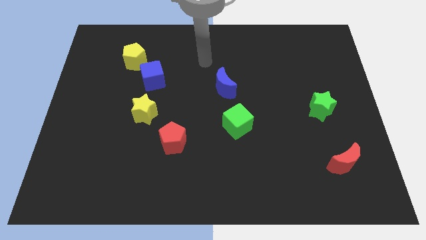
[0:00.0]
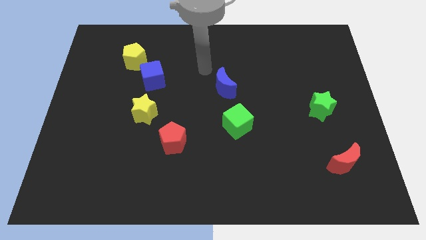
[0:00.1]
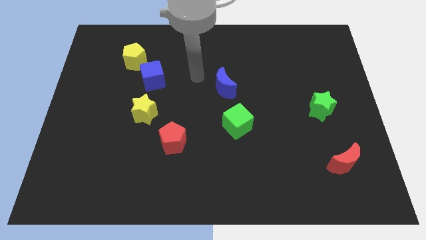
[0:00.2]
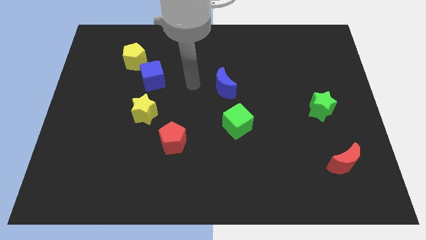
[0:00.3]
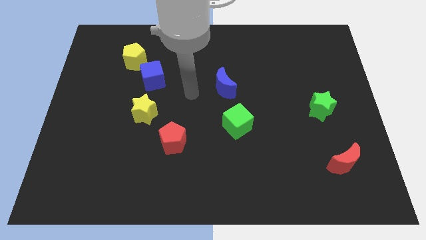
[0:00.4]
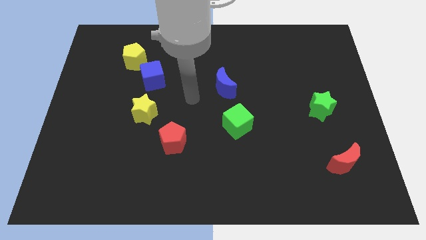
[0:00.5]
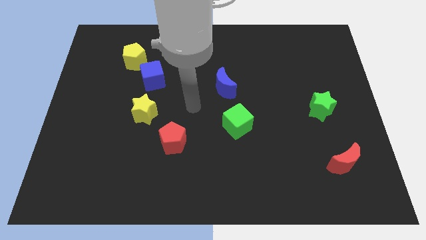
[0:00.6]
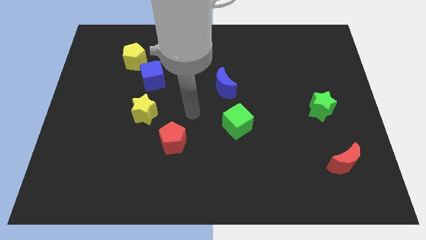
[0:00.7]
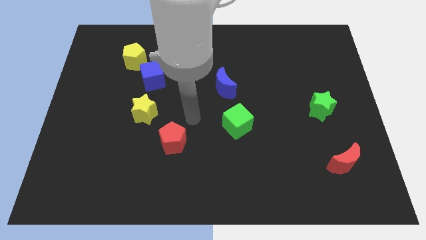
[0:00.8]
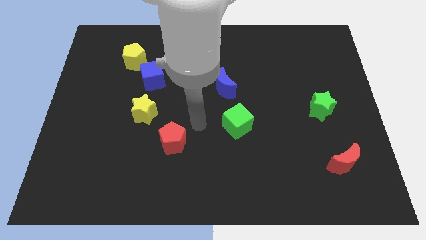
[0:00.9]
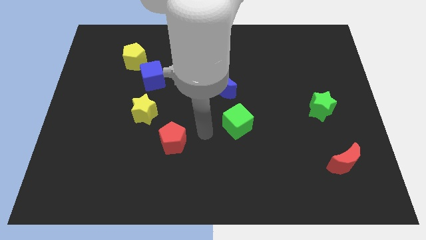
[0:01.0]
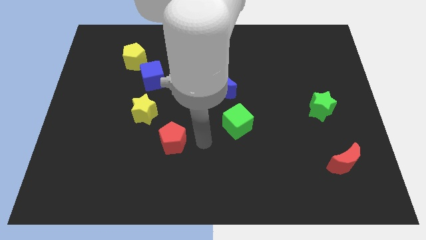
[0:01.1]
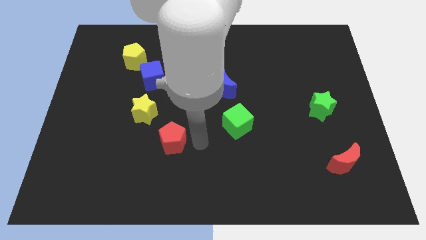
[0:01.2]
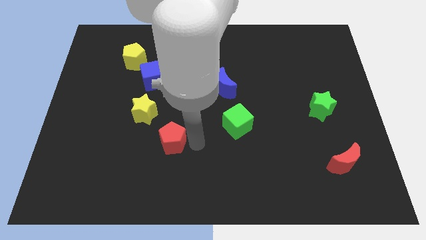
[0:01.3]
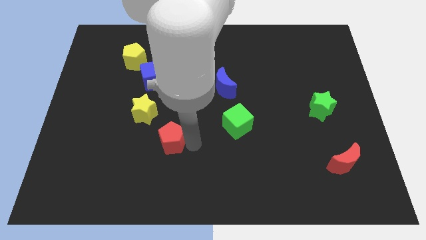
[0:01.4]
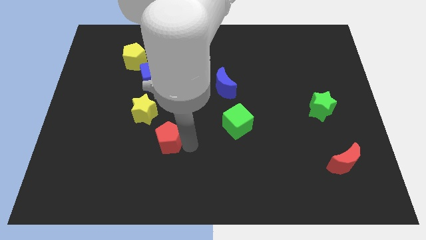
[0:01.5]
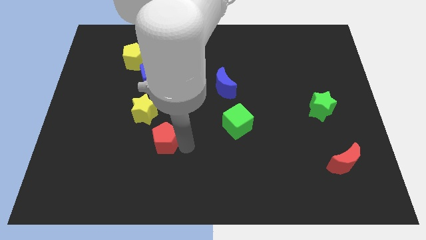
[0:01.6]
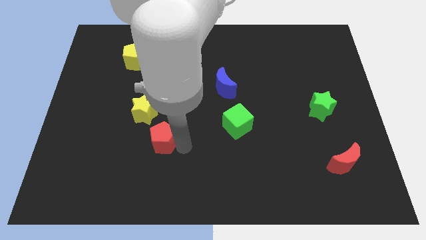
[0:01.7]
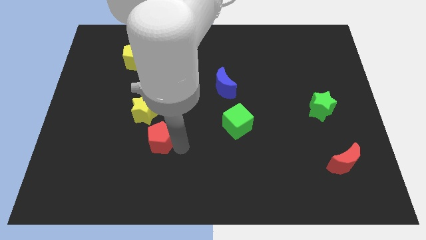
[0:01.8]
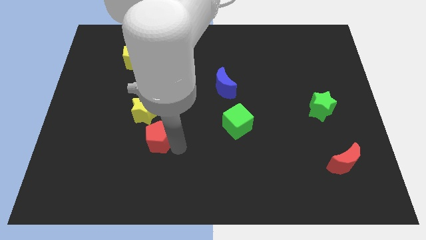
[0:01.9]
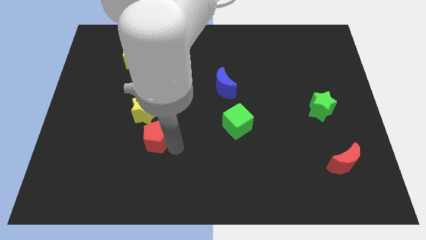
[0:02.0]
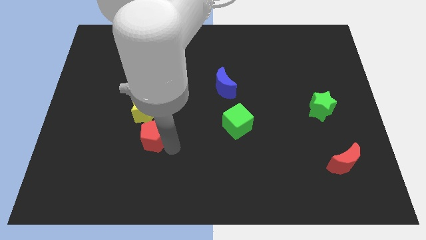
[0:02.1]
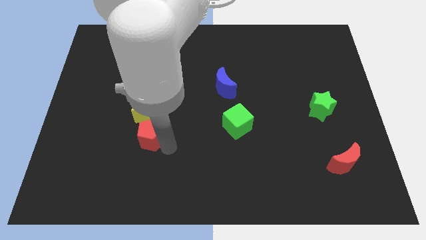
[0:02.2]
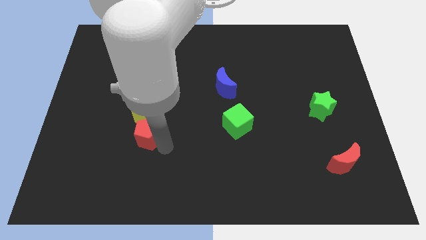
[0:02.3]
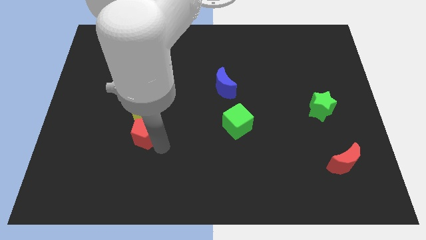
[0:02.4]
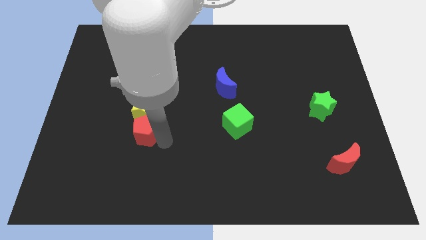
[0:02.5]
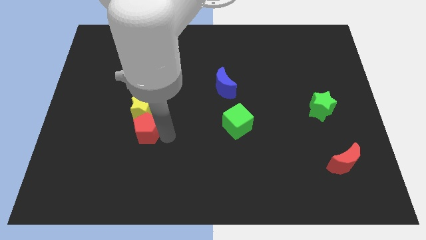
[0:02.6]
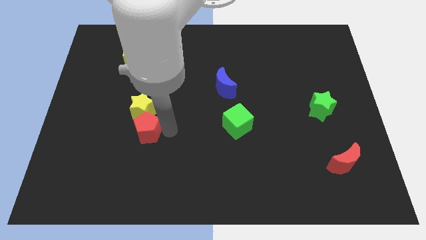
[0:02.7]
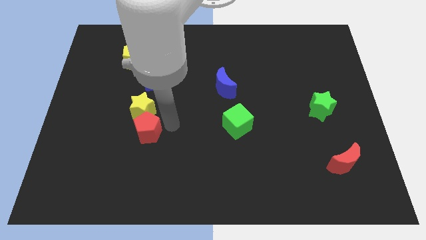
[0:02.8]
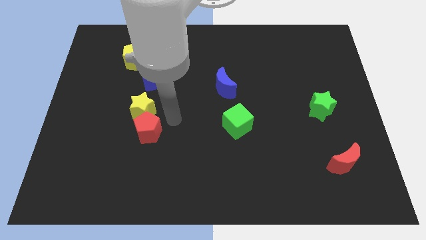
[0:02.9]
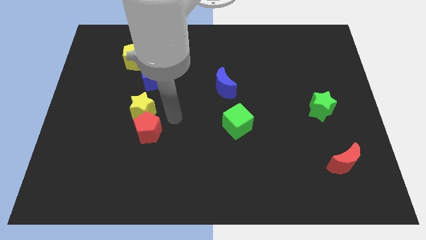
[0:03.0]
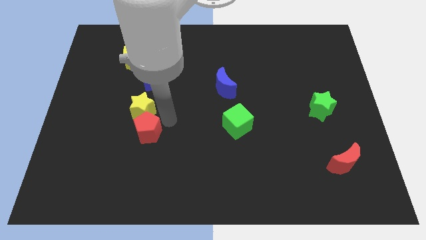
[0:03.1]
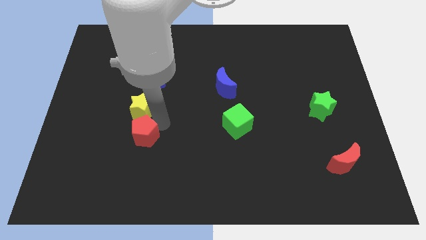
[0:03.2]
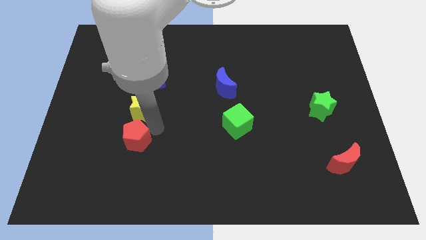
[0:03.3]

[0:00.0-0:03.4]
move the red pentagon a little to the left

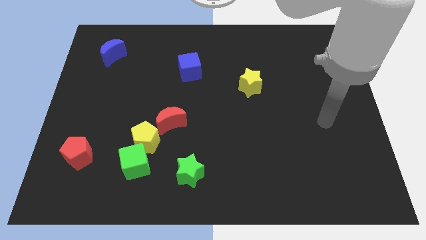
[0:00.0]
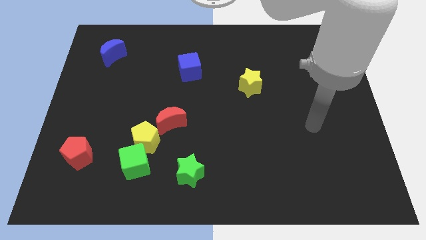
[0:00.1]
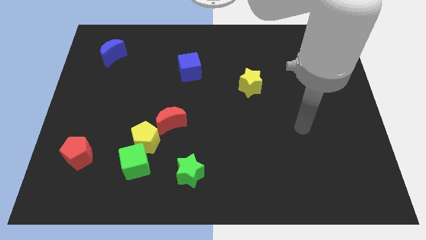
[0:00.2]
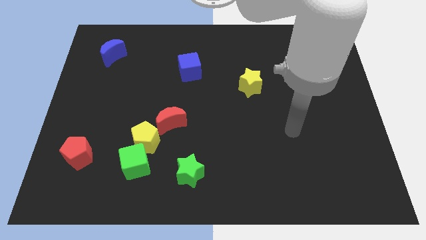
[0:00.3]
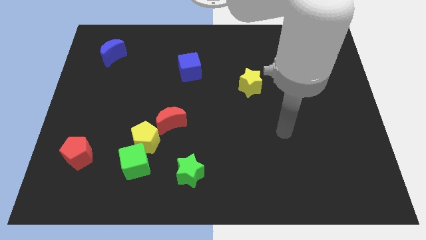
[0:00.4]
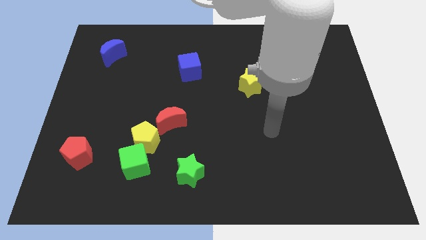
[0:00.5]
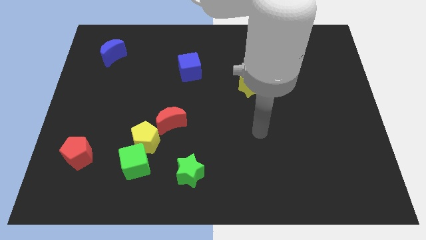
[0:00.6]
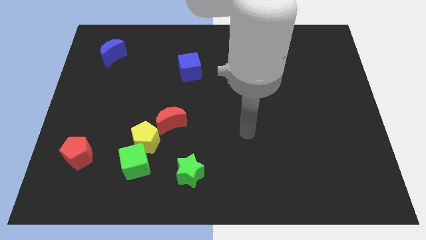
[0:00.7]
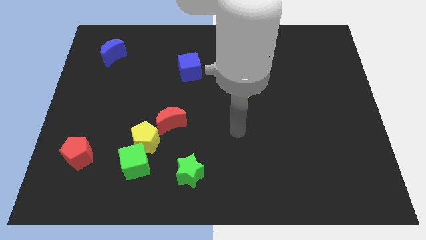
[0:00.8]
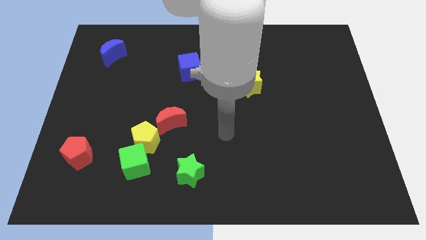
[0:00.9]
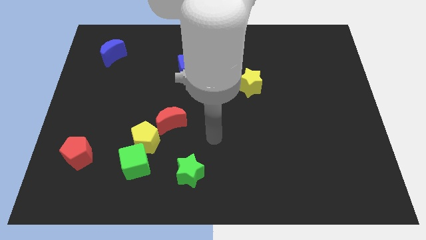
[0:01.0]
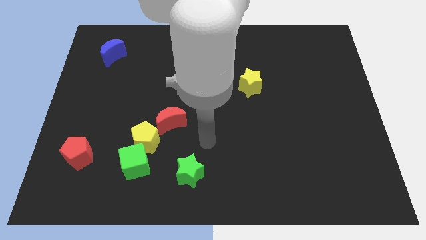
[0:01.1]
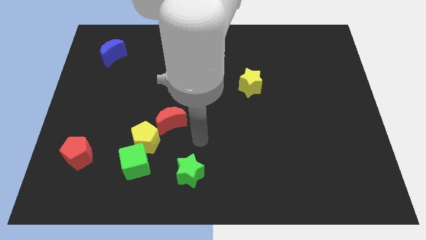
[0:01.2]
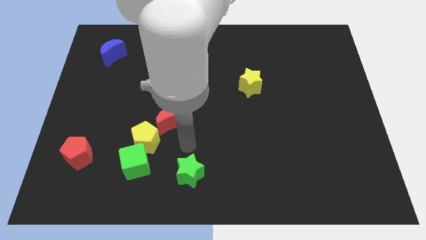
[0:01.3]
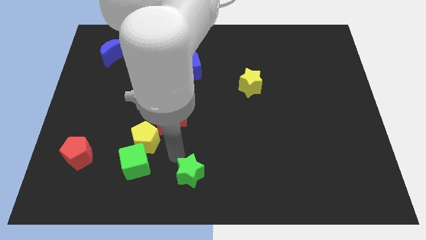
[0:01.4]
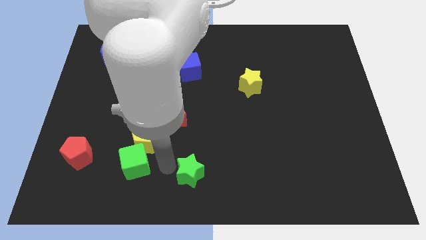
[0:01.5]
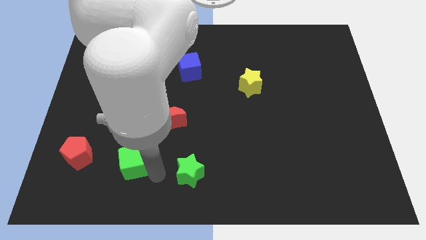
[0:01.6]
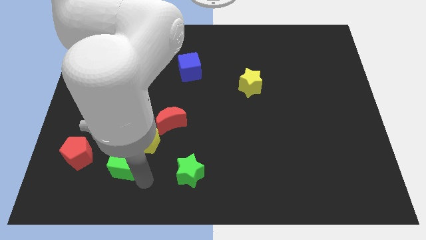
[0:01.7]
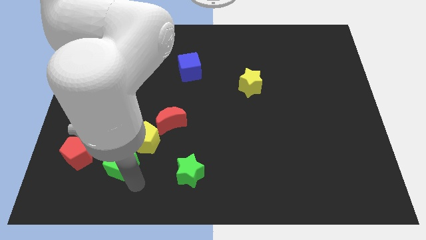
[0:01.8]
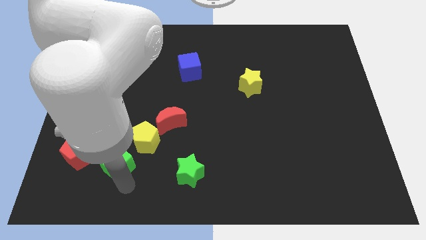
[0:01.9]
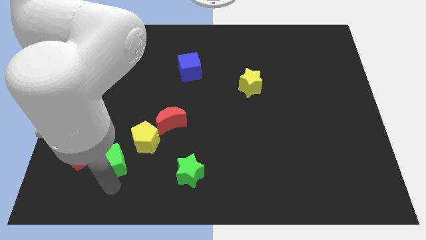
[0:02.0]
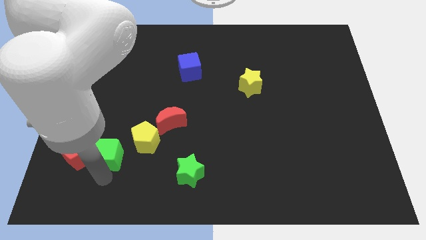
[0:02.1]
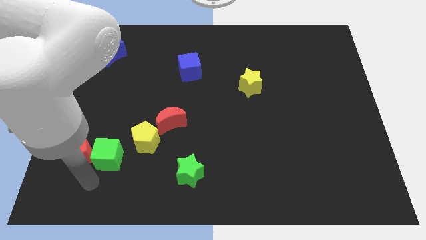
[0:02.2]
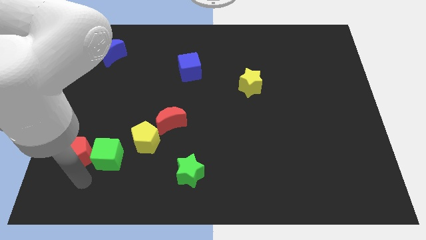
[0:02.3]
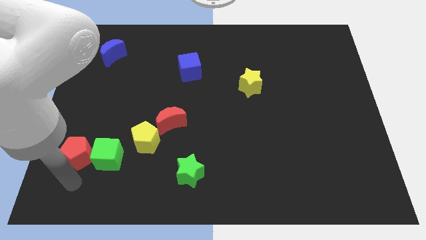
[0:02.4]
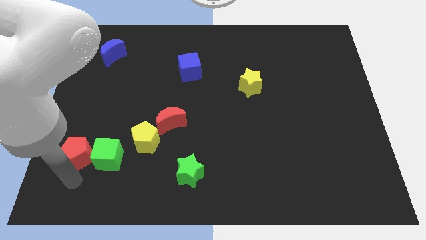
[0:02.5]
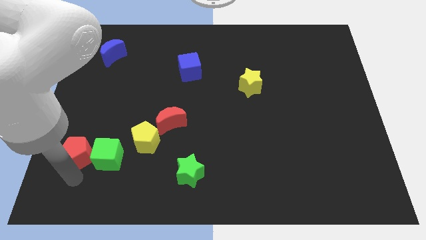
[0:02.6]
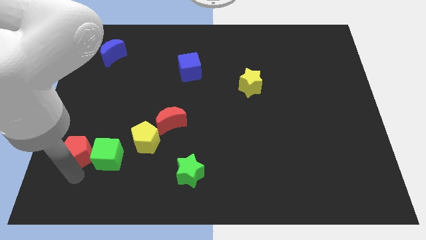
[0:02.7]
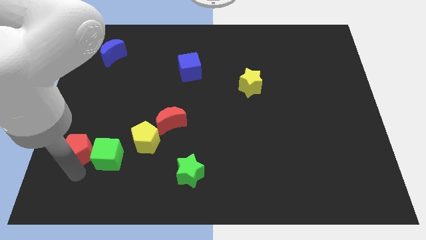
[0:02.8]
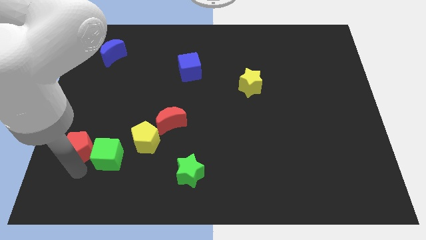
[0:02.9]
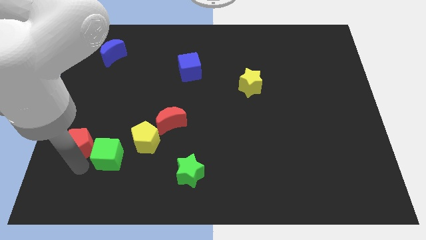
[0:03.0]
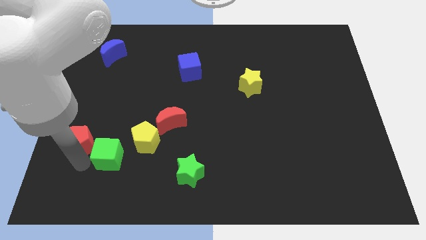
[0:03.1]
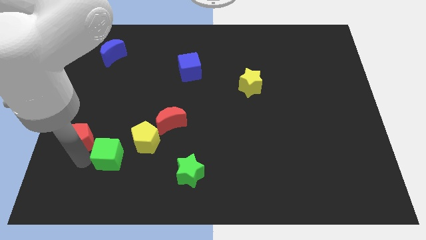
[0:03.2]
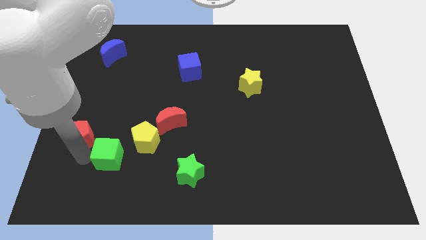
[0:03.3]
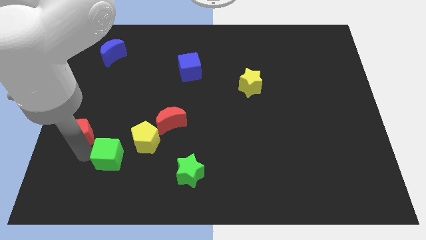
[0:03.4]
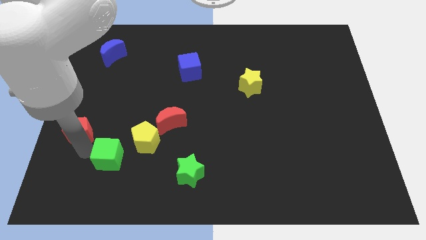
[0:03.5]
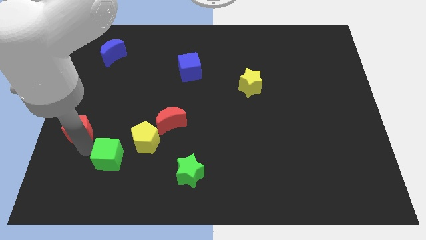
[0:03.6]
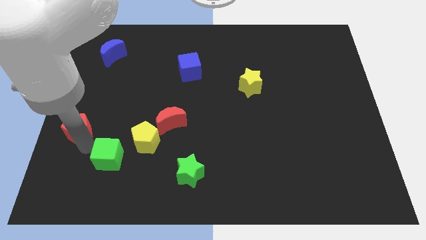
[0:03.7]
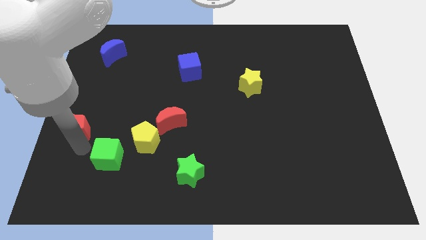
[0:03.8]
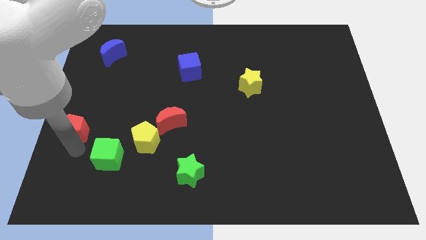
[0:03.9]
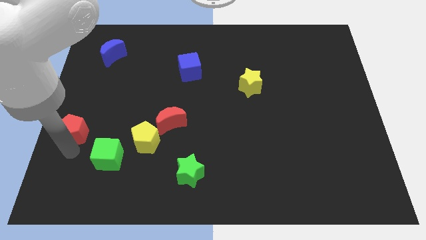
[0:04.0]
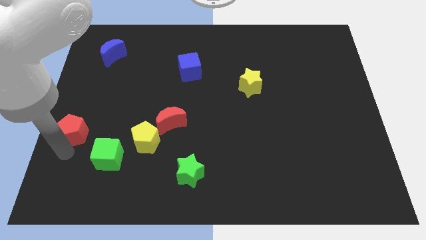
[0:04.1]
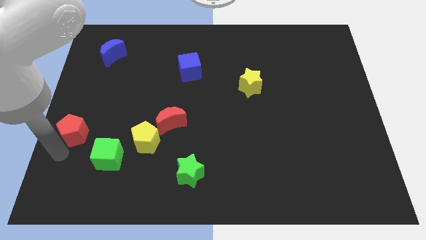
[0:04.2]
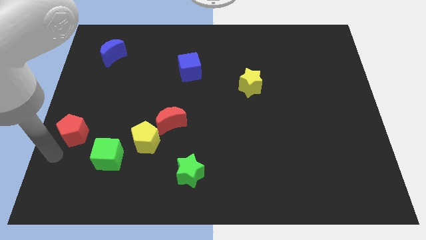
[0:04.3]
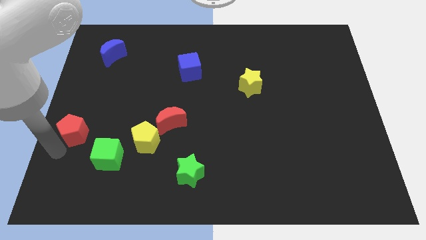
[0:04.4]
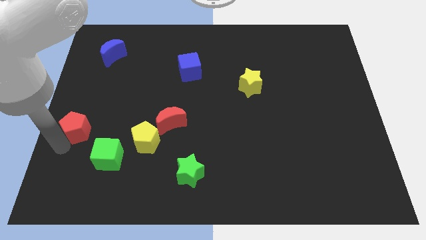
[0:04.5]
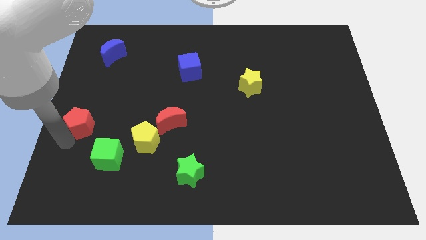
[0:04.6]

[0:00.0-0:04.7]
push the red pentagon up a little
